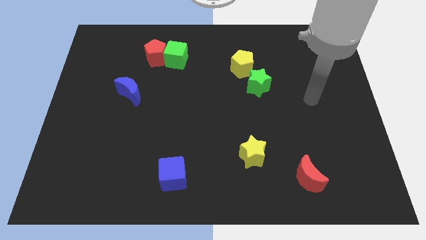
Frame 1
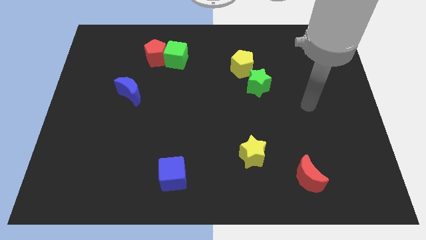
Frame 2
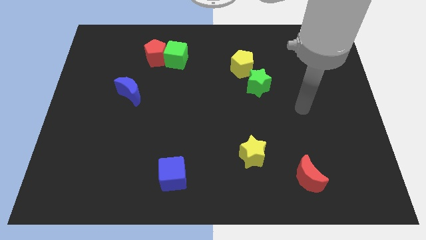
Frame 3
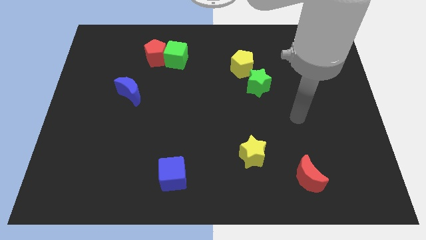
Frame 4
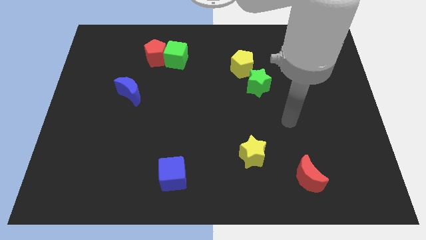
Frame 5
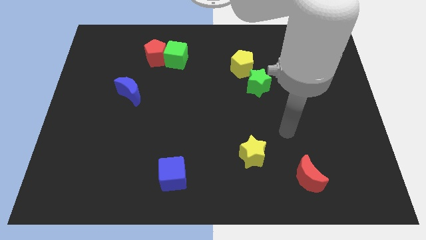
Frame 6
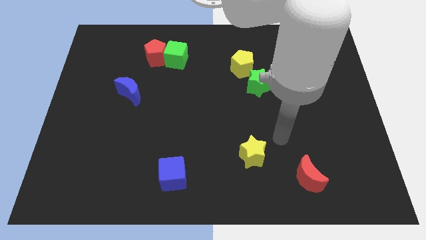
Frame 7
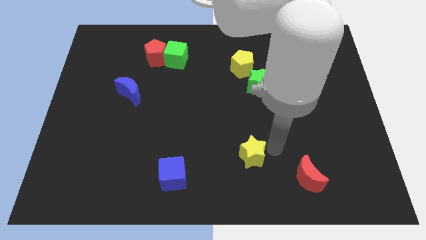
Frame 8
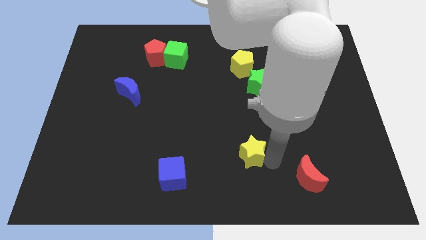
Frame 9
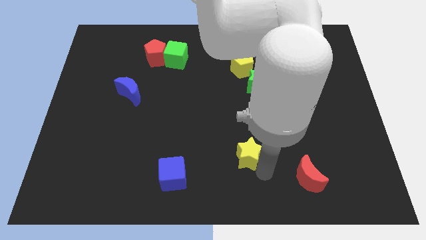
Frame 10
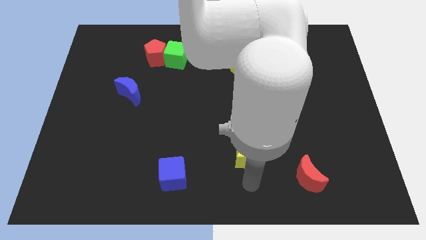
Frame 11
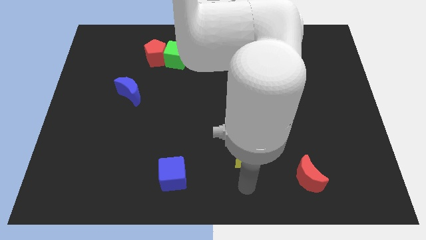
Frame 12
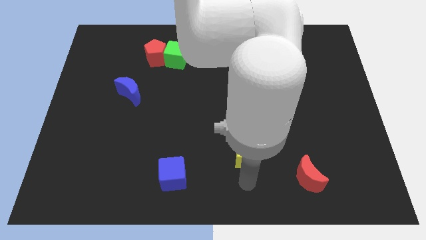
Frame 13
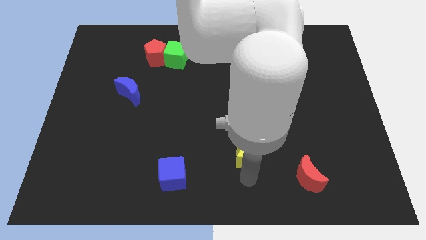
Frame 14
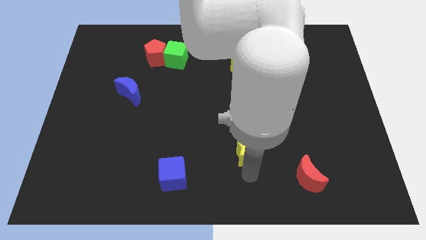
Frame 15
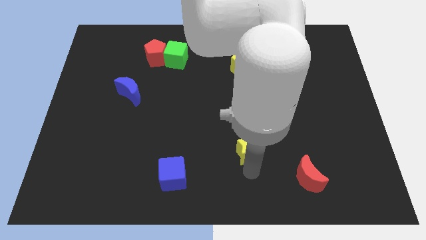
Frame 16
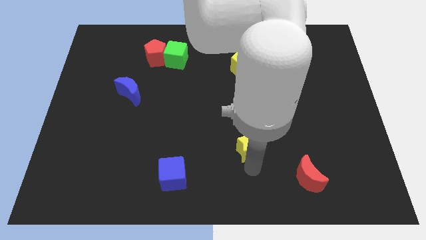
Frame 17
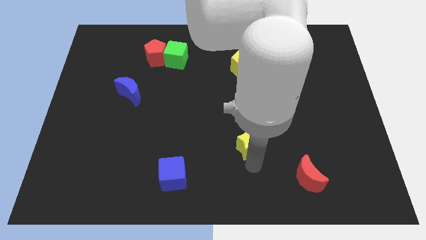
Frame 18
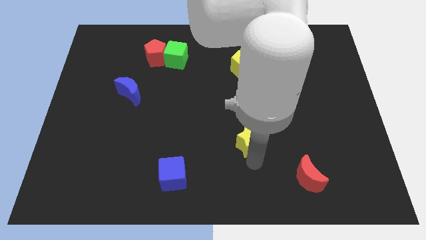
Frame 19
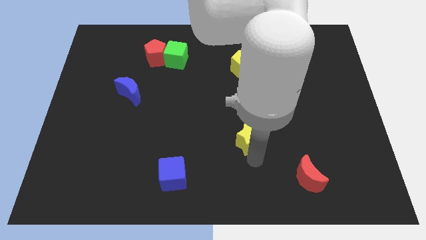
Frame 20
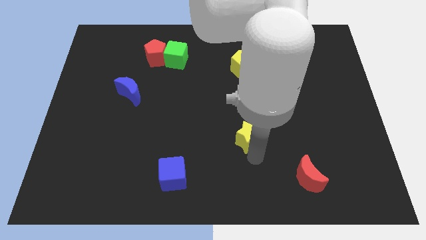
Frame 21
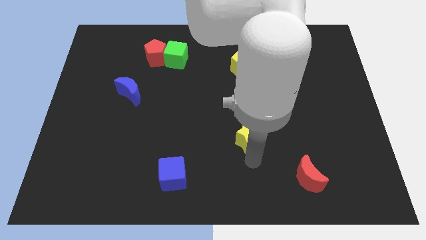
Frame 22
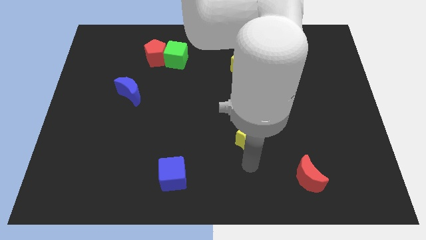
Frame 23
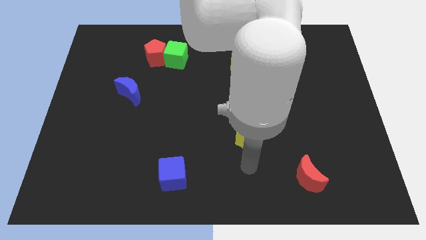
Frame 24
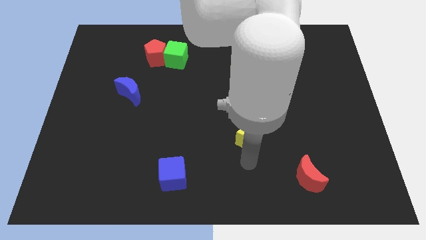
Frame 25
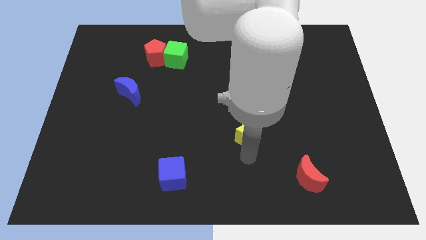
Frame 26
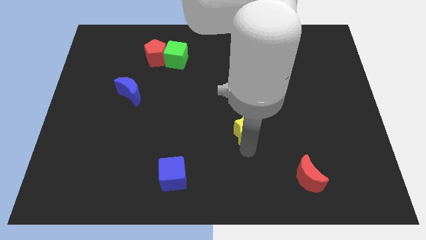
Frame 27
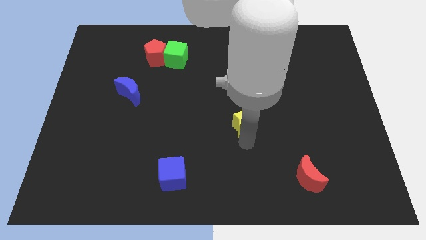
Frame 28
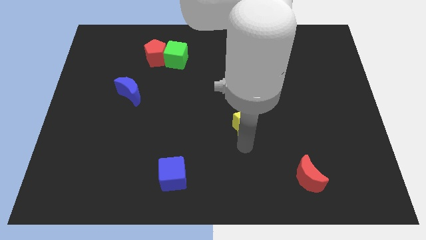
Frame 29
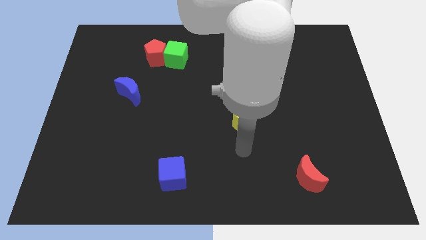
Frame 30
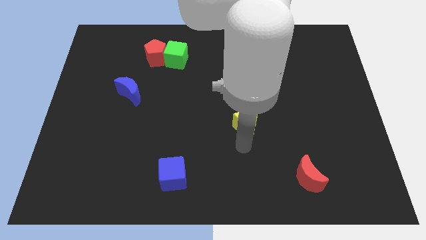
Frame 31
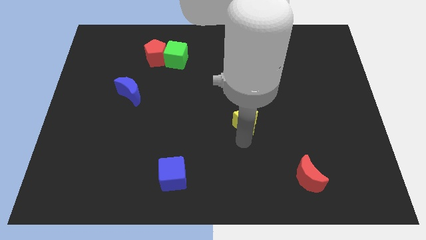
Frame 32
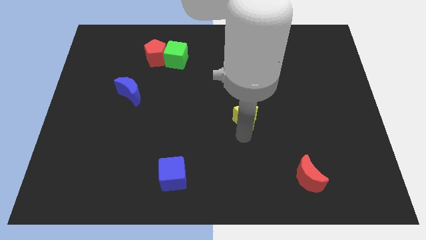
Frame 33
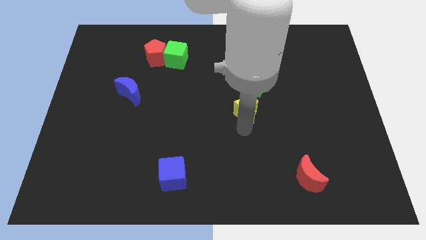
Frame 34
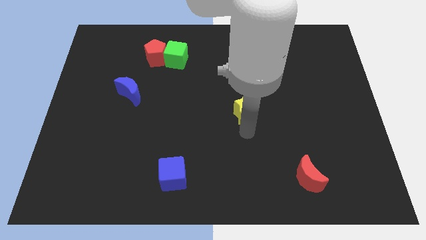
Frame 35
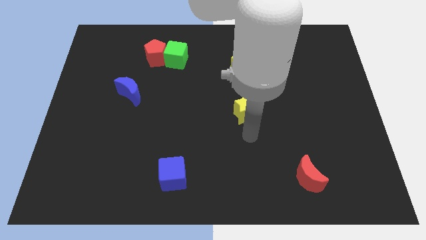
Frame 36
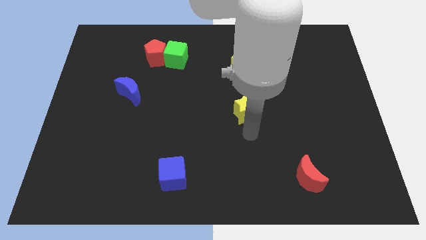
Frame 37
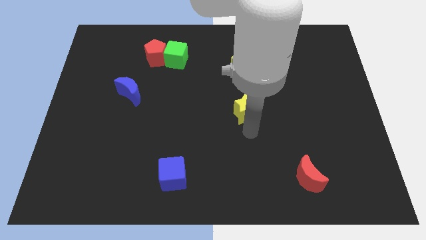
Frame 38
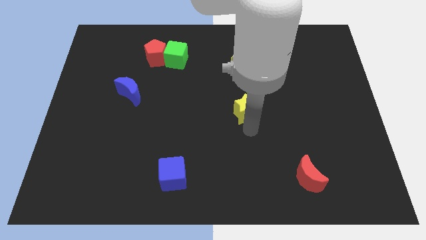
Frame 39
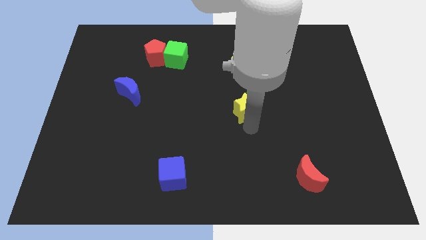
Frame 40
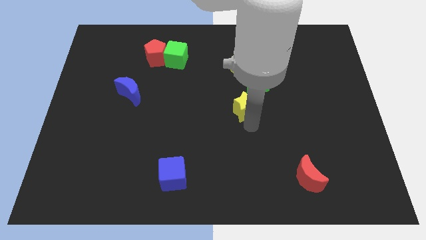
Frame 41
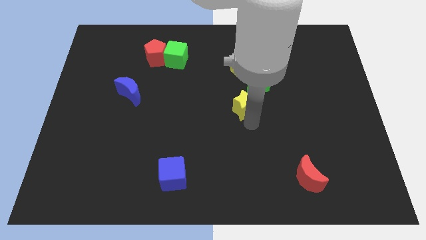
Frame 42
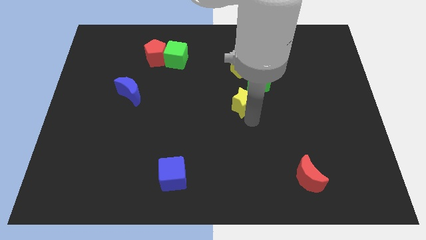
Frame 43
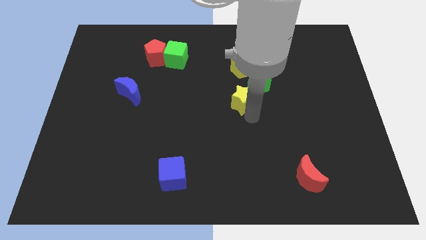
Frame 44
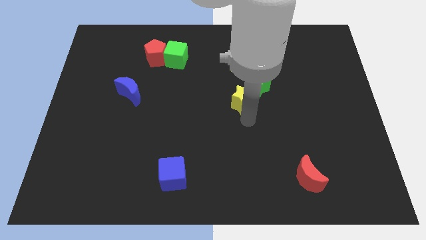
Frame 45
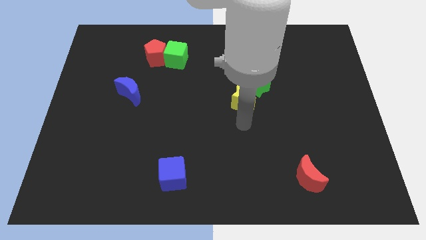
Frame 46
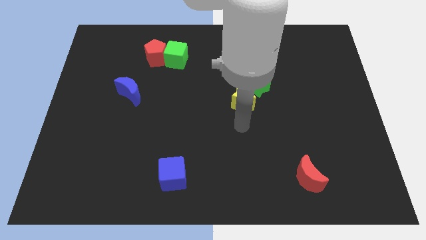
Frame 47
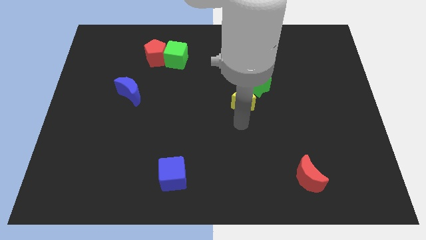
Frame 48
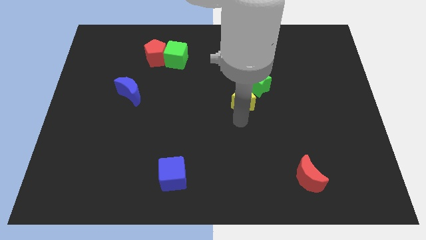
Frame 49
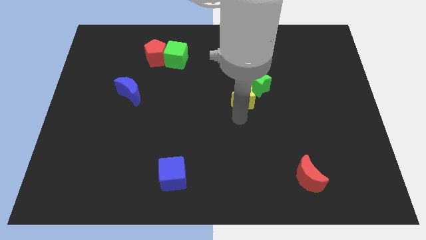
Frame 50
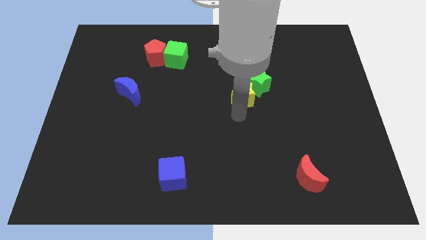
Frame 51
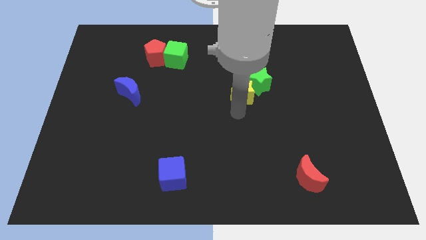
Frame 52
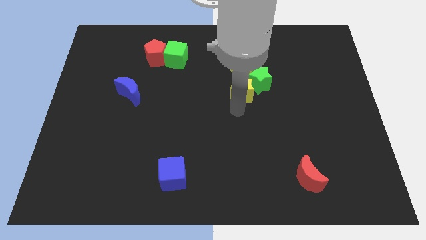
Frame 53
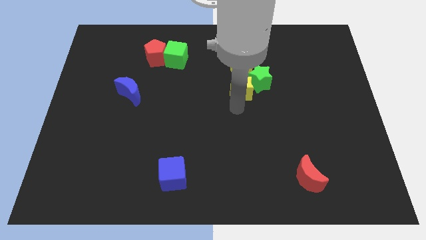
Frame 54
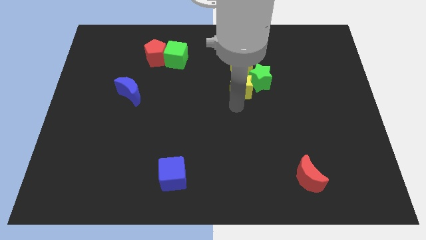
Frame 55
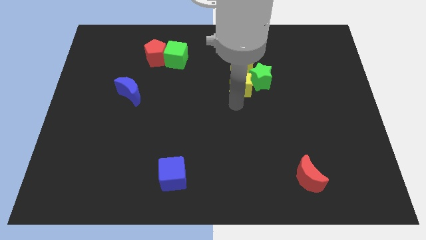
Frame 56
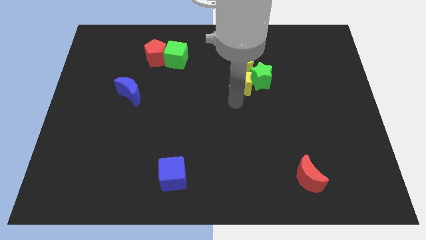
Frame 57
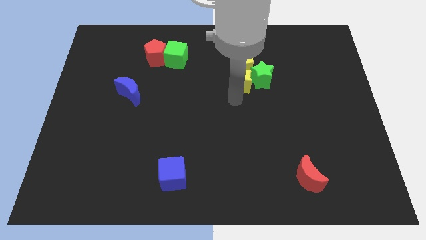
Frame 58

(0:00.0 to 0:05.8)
move the yellow star towards the yellow pentagon

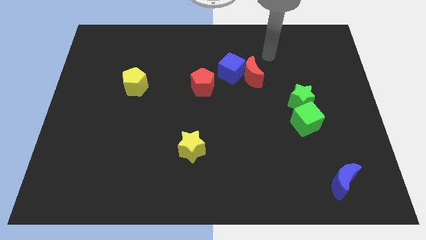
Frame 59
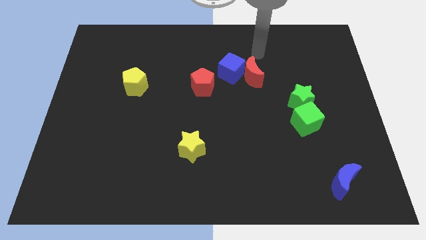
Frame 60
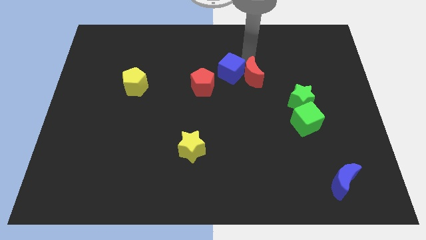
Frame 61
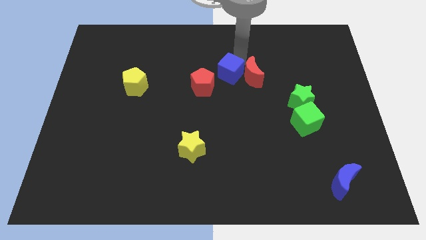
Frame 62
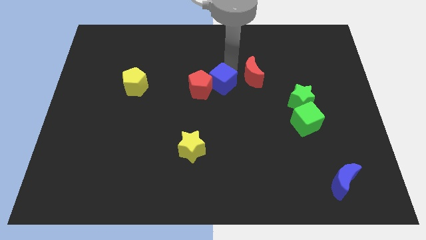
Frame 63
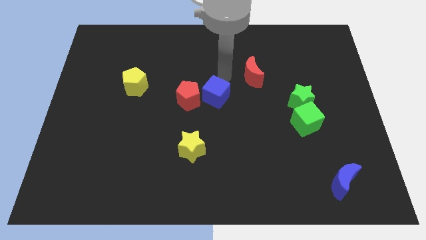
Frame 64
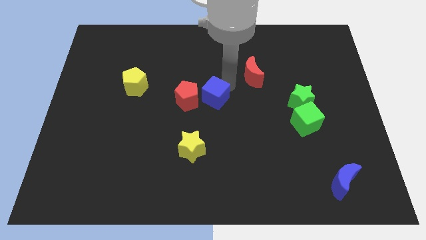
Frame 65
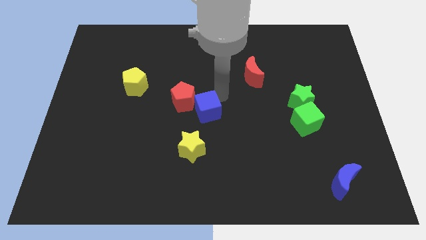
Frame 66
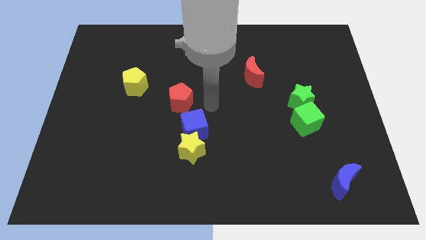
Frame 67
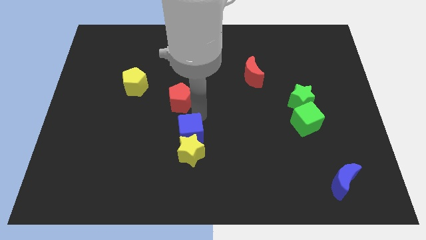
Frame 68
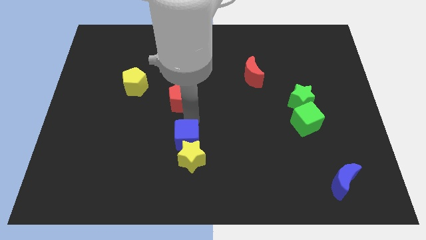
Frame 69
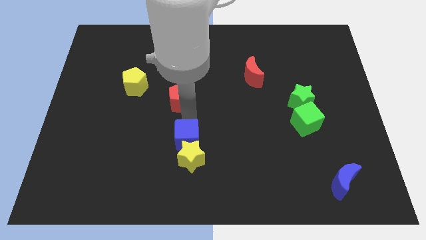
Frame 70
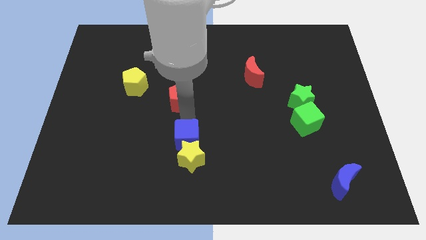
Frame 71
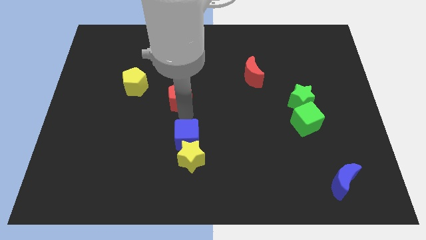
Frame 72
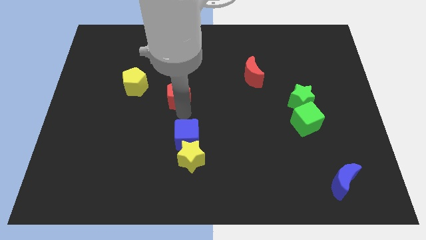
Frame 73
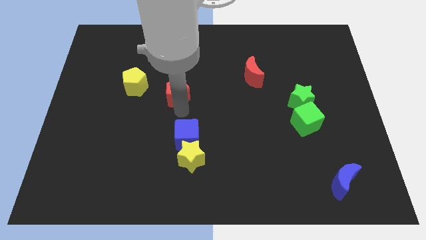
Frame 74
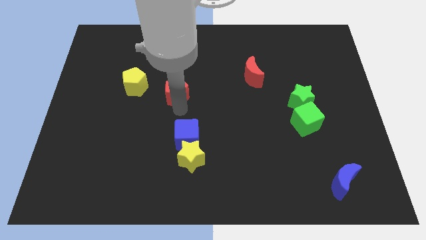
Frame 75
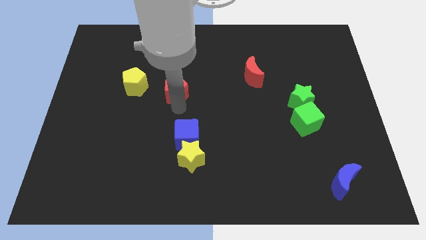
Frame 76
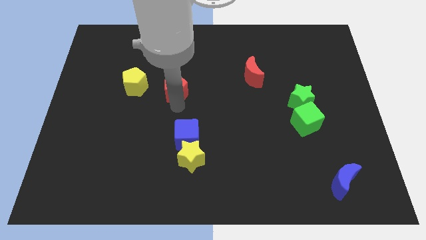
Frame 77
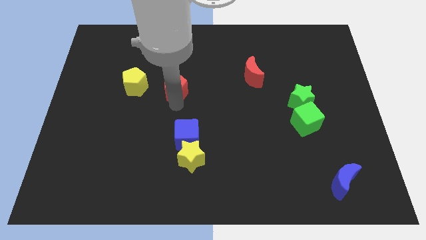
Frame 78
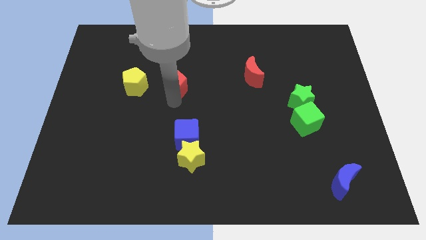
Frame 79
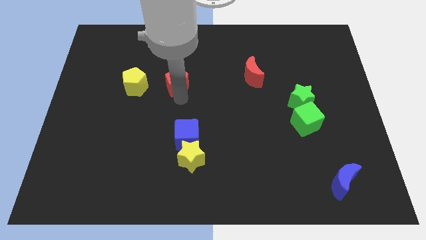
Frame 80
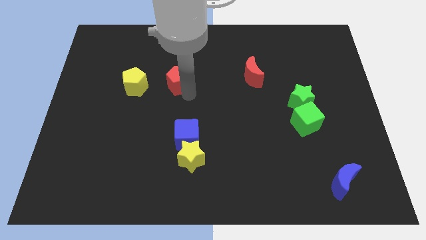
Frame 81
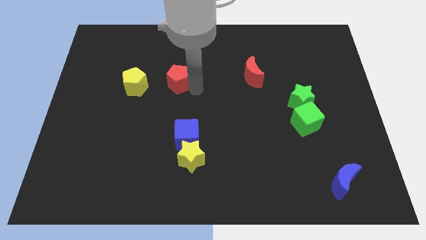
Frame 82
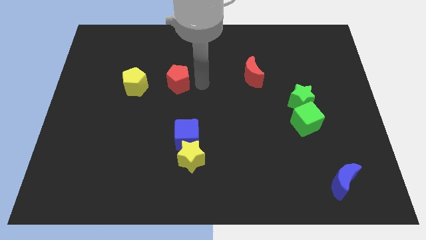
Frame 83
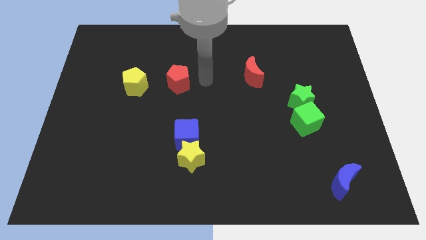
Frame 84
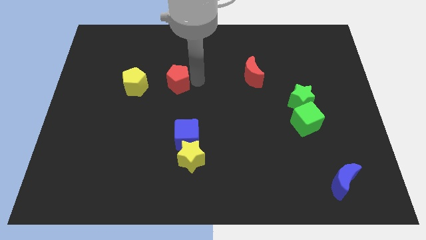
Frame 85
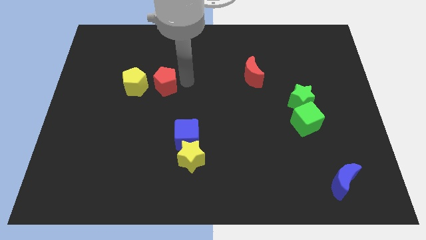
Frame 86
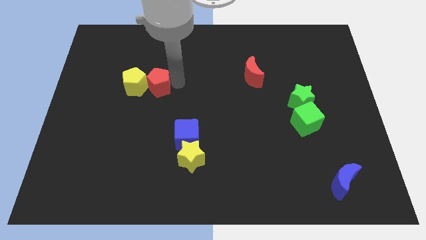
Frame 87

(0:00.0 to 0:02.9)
move the red pentagon next to the yellow pentagon
